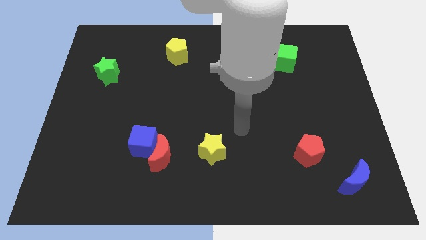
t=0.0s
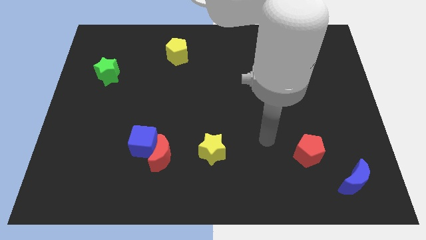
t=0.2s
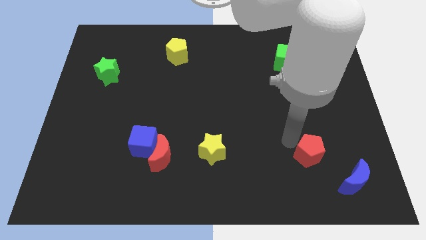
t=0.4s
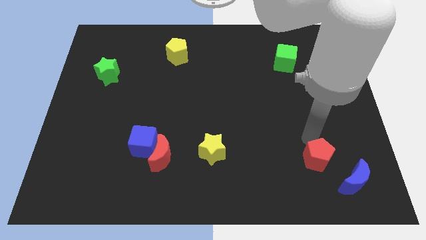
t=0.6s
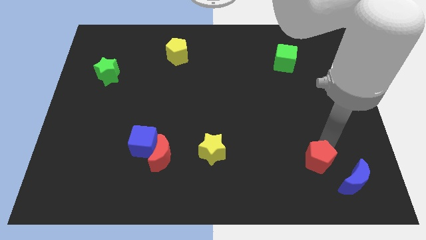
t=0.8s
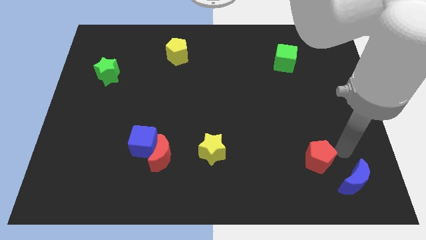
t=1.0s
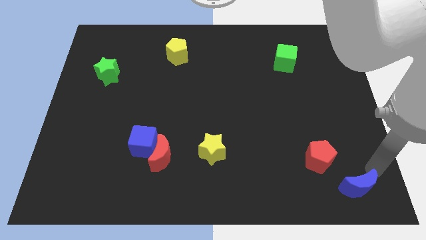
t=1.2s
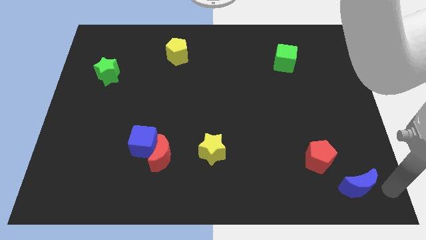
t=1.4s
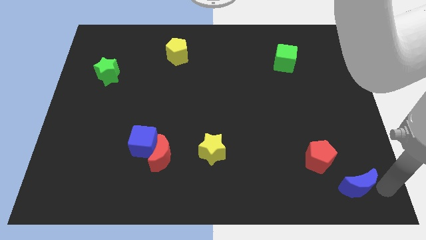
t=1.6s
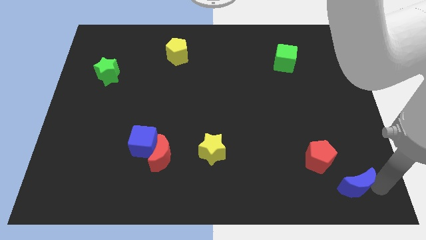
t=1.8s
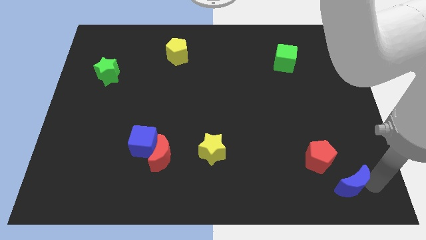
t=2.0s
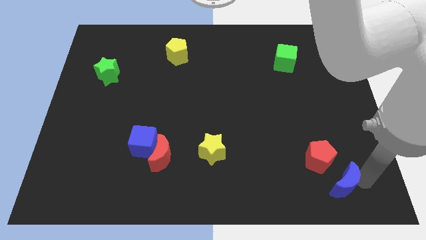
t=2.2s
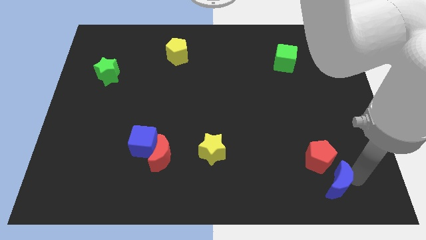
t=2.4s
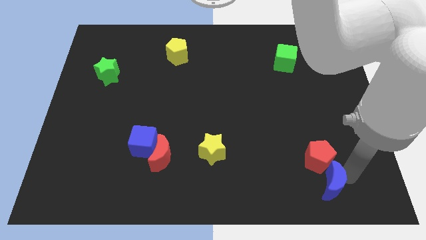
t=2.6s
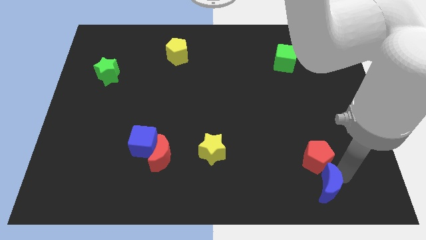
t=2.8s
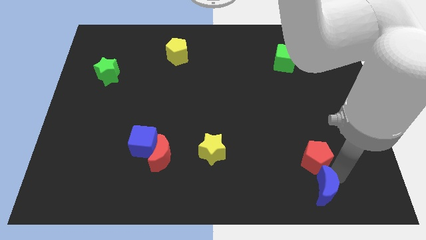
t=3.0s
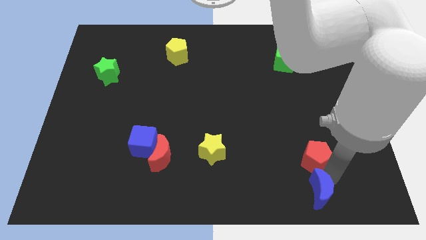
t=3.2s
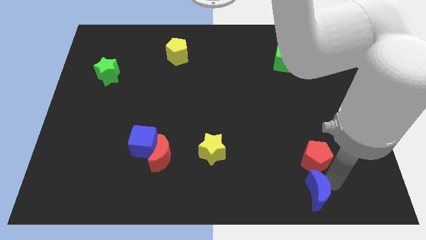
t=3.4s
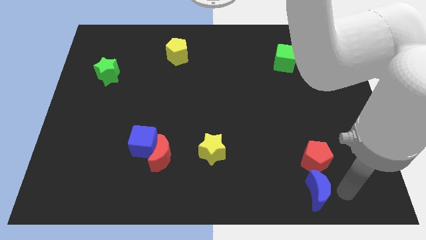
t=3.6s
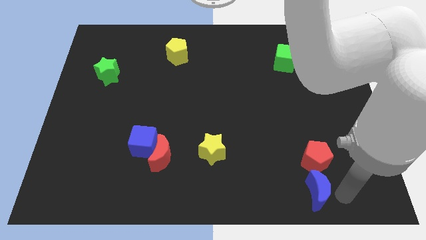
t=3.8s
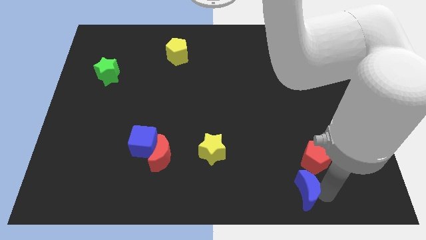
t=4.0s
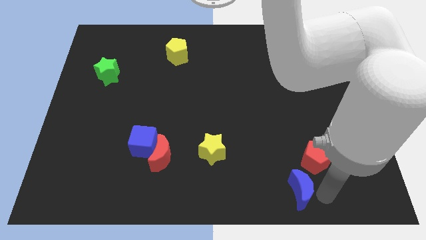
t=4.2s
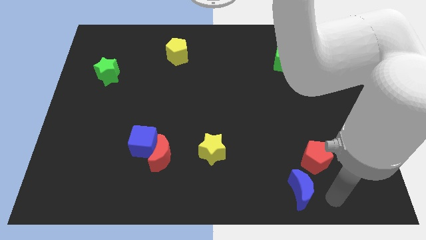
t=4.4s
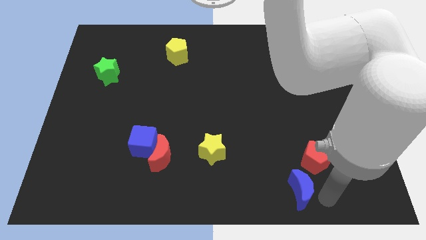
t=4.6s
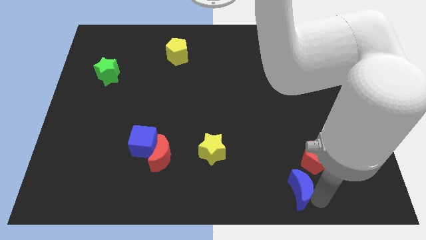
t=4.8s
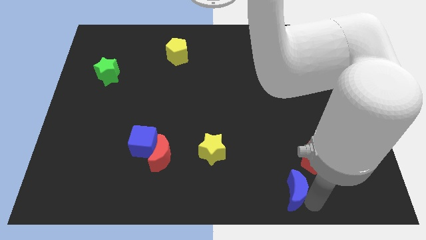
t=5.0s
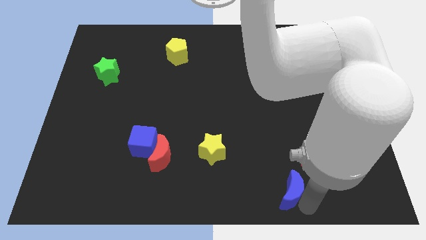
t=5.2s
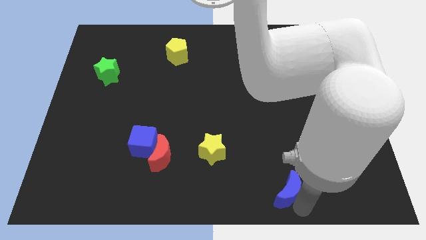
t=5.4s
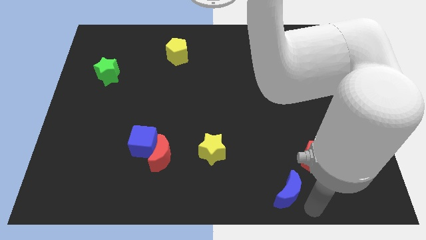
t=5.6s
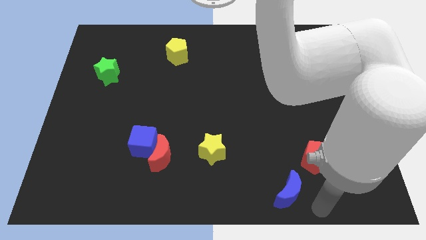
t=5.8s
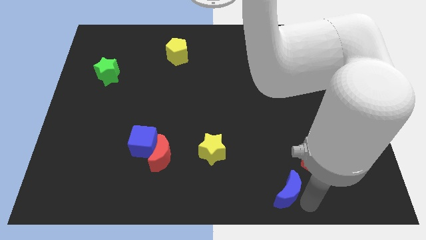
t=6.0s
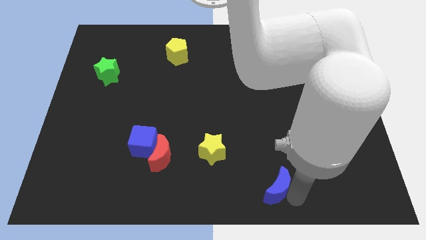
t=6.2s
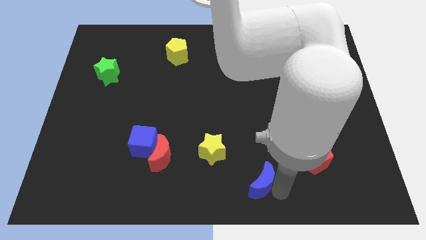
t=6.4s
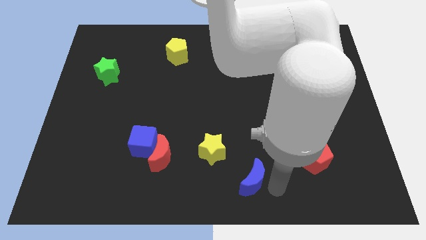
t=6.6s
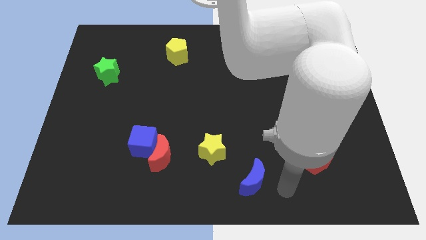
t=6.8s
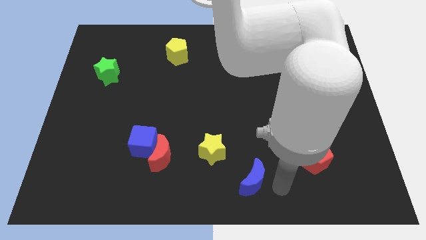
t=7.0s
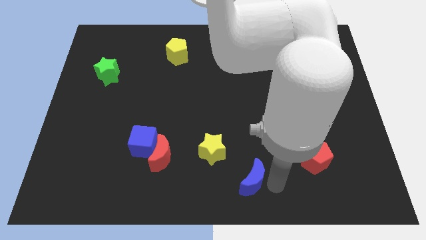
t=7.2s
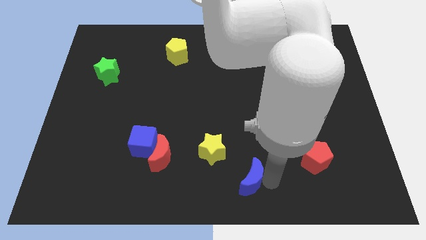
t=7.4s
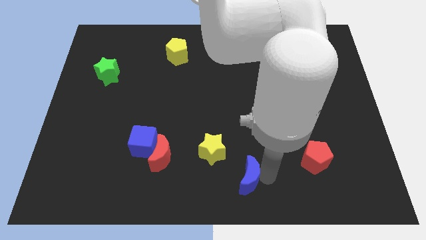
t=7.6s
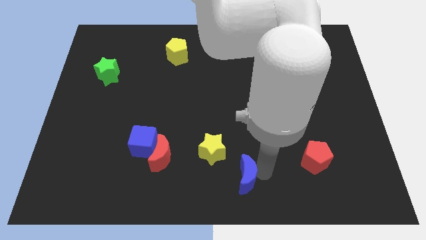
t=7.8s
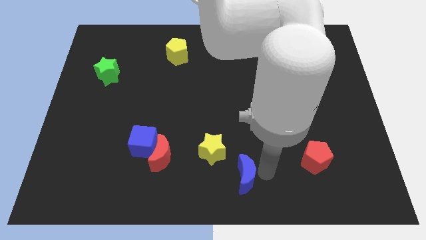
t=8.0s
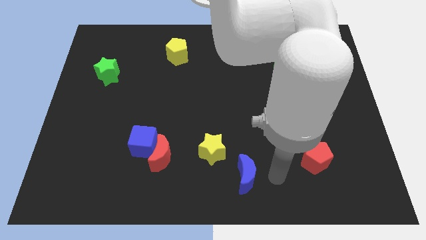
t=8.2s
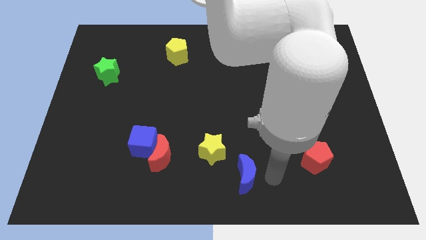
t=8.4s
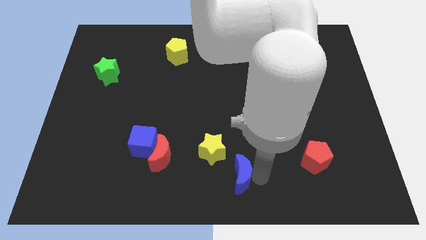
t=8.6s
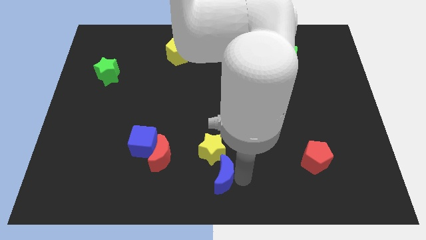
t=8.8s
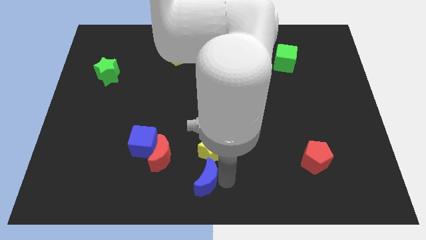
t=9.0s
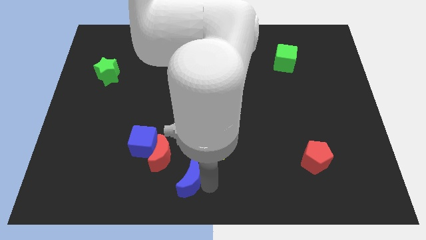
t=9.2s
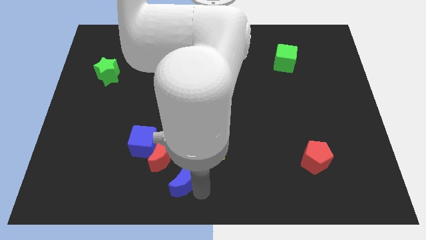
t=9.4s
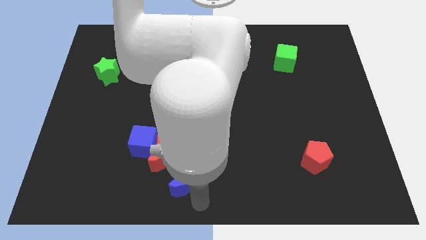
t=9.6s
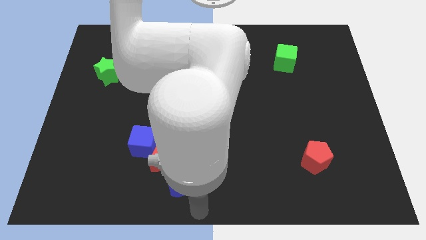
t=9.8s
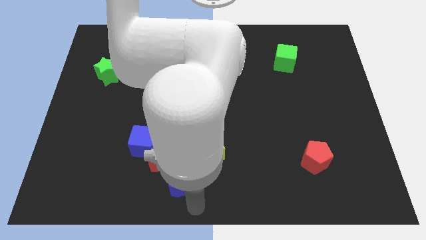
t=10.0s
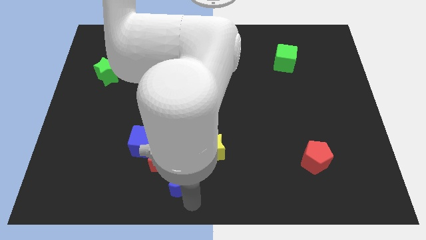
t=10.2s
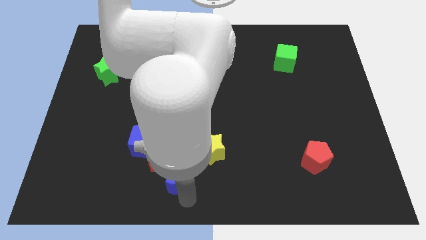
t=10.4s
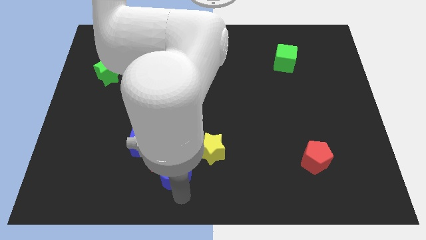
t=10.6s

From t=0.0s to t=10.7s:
push the blue moon close to the red moon

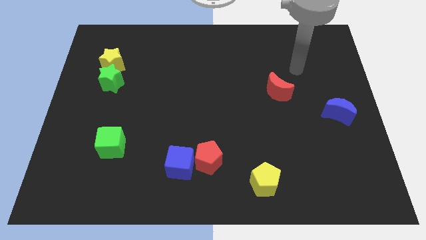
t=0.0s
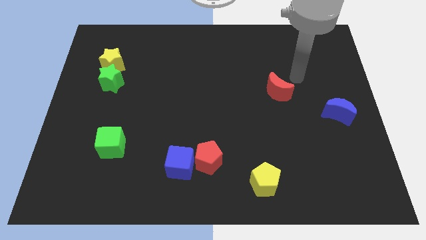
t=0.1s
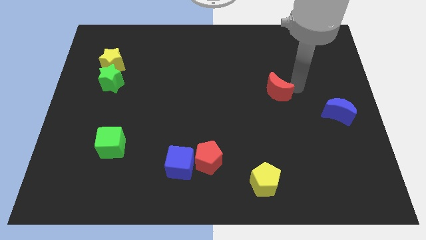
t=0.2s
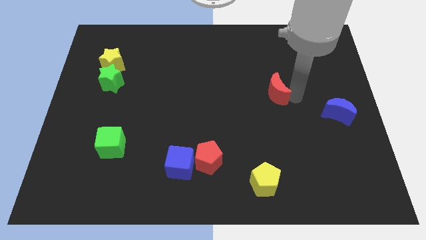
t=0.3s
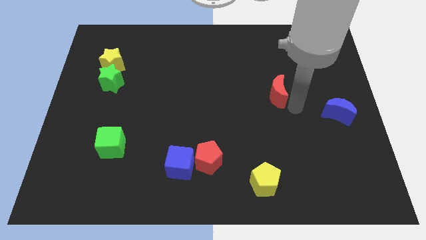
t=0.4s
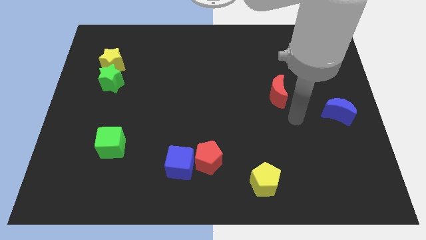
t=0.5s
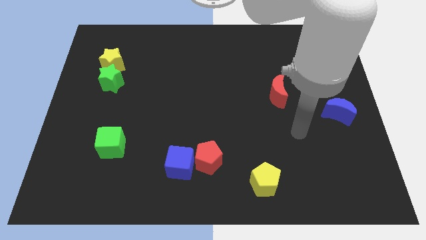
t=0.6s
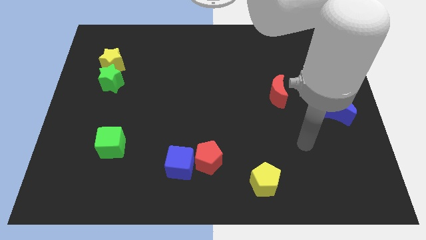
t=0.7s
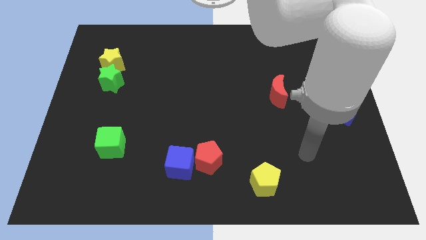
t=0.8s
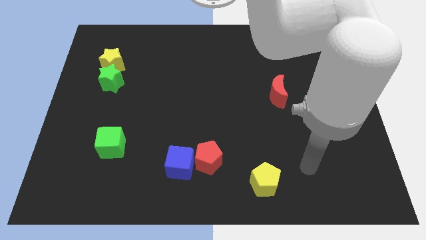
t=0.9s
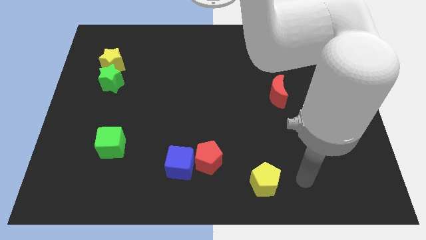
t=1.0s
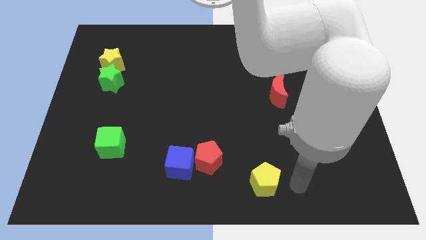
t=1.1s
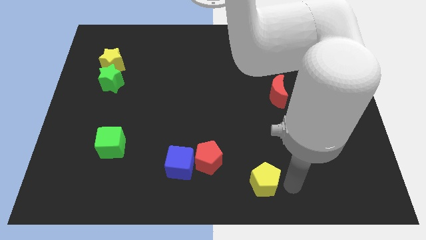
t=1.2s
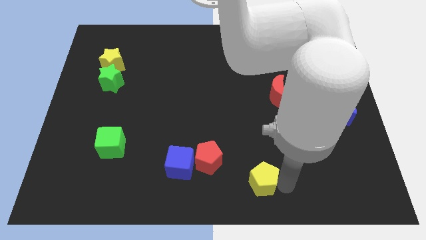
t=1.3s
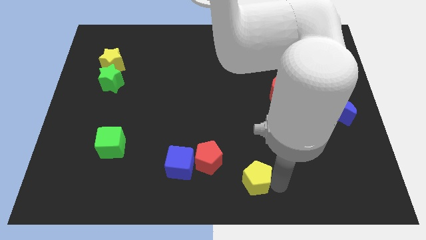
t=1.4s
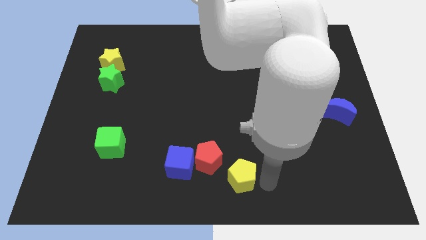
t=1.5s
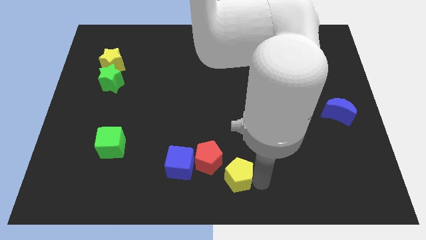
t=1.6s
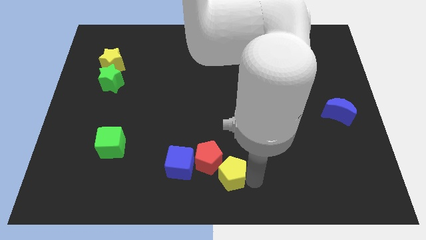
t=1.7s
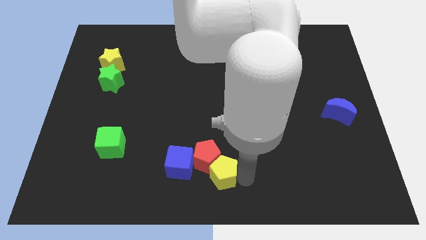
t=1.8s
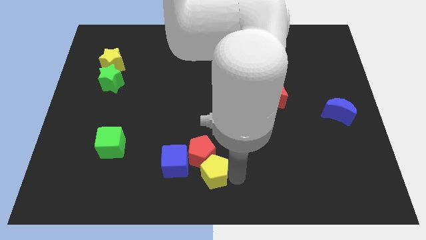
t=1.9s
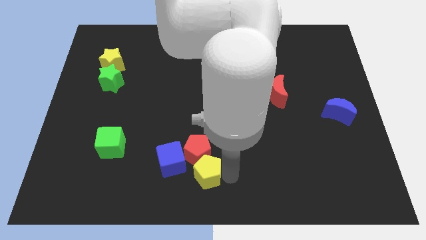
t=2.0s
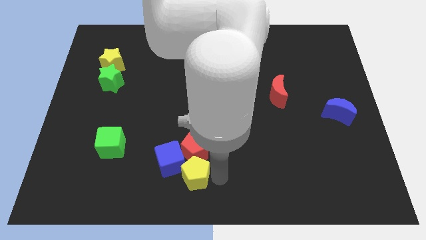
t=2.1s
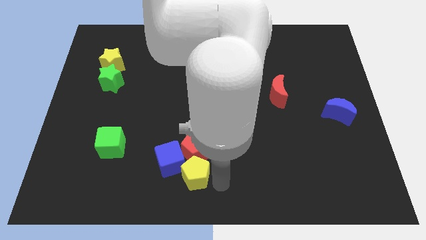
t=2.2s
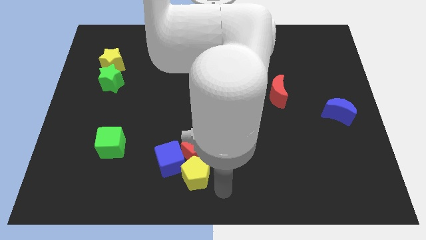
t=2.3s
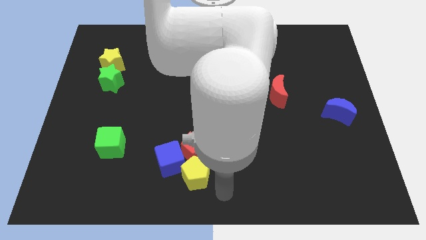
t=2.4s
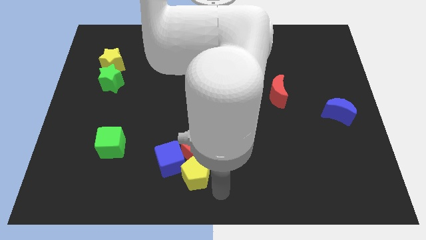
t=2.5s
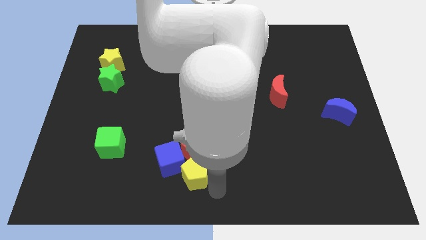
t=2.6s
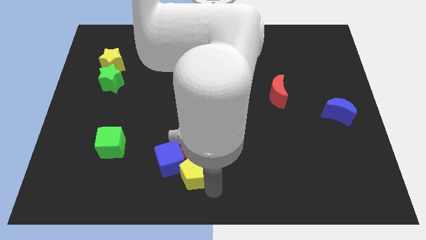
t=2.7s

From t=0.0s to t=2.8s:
push the yellow pentagon towards the blue cube

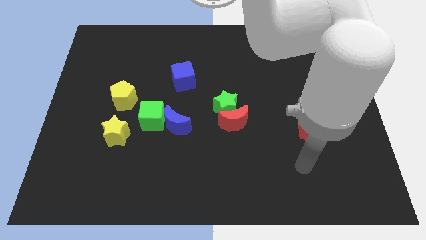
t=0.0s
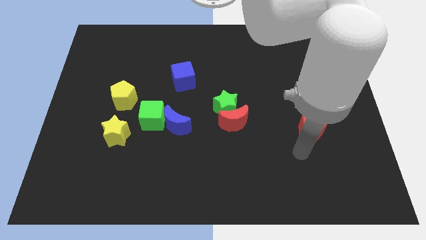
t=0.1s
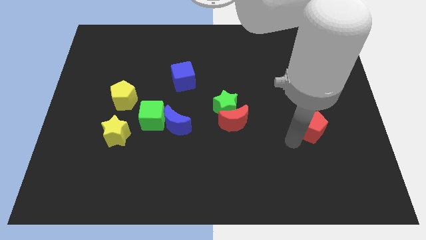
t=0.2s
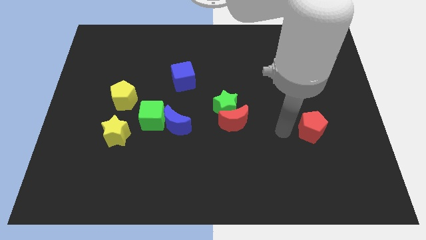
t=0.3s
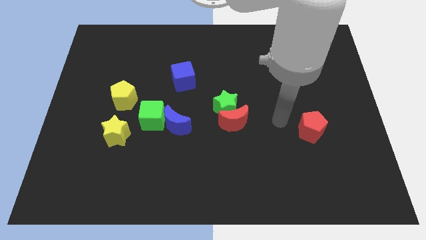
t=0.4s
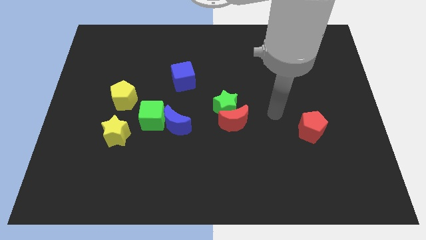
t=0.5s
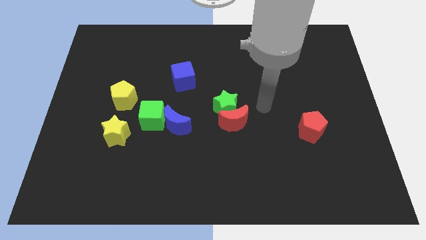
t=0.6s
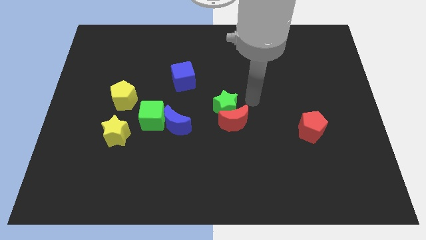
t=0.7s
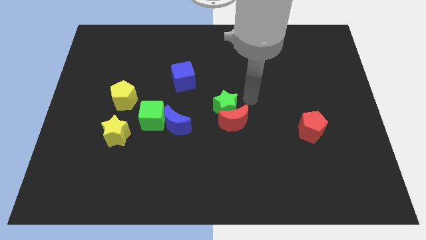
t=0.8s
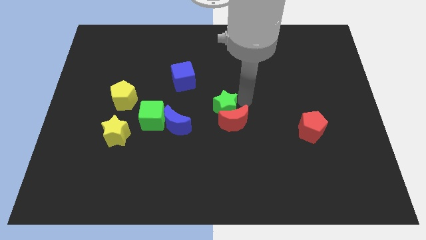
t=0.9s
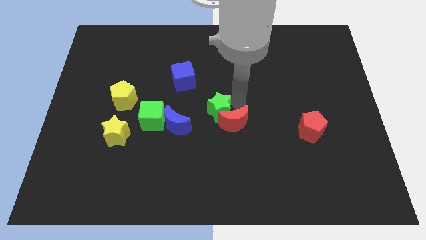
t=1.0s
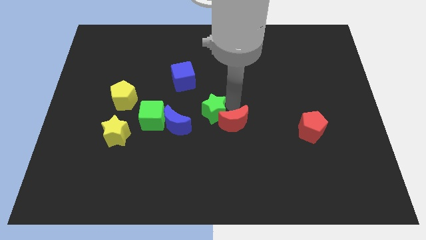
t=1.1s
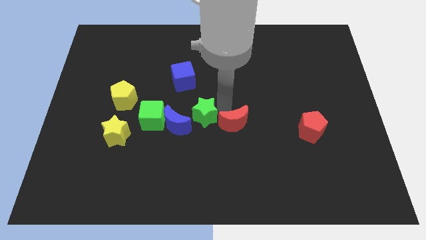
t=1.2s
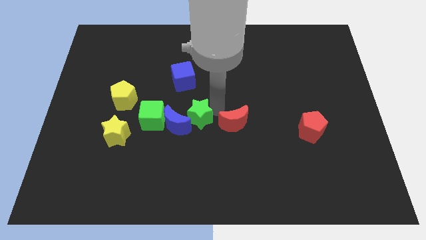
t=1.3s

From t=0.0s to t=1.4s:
slide the green star to the blue moon
